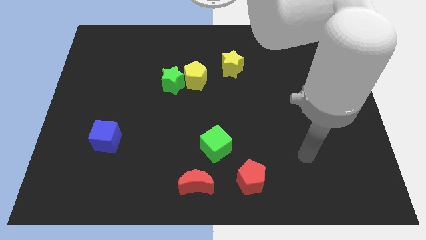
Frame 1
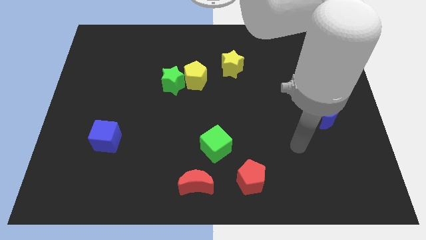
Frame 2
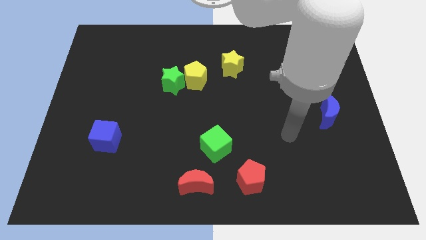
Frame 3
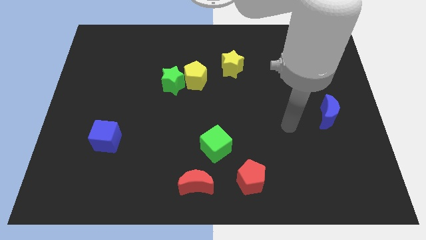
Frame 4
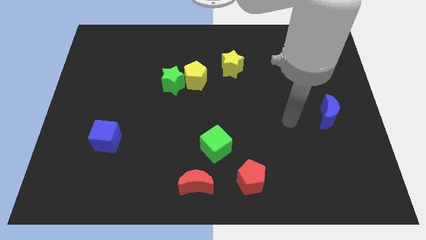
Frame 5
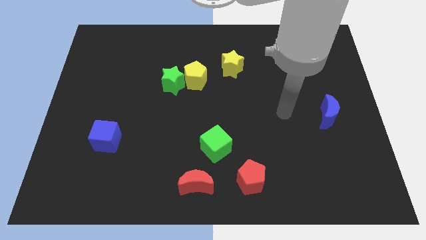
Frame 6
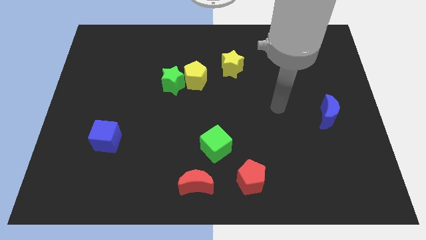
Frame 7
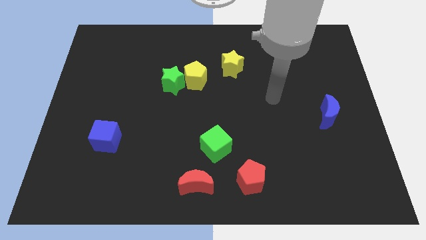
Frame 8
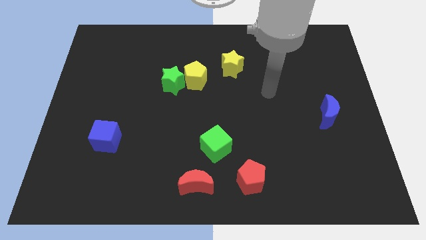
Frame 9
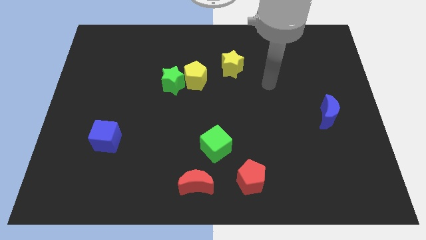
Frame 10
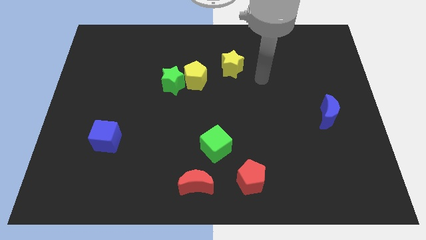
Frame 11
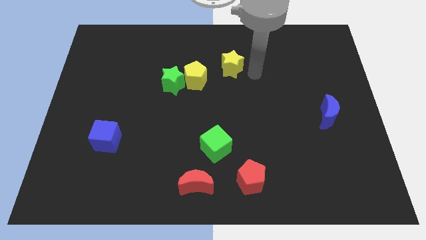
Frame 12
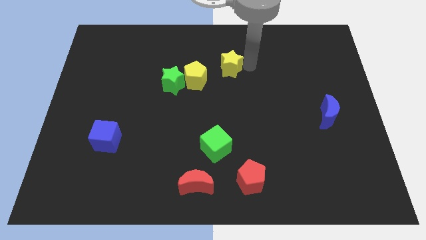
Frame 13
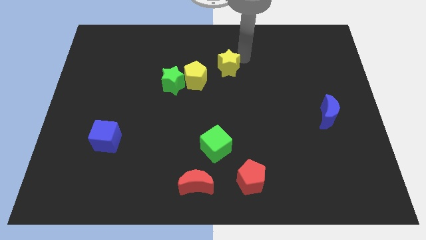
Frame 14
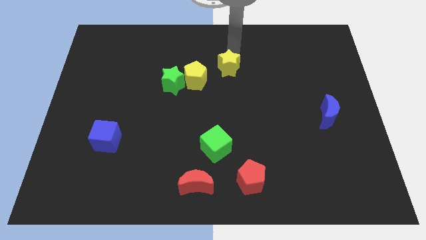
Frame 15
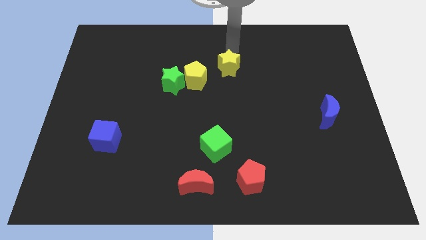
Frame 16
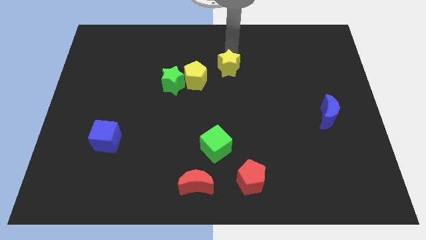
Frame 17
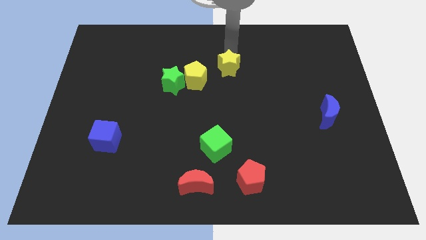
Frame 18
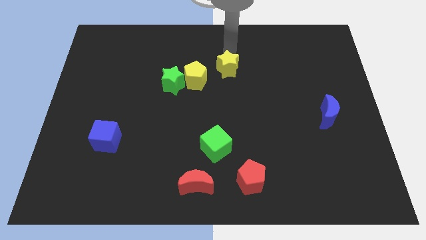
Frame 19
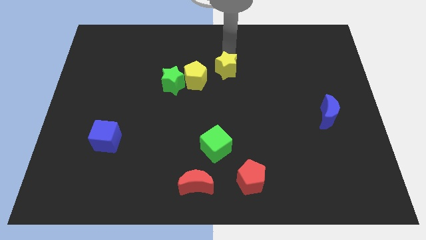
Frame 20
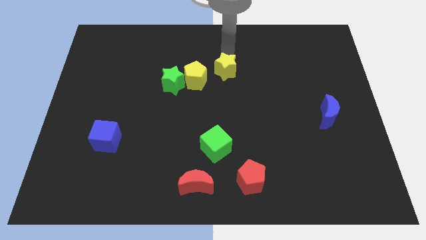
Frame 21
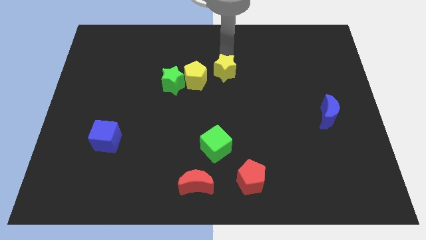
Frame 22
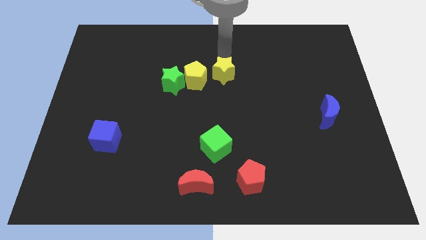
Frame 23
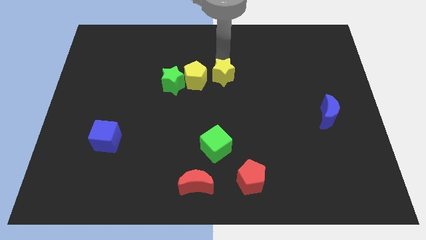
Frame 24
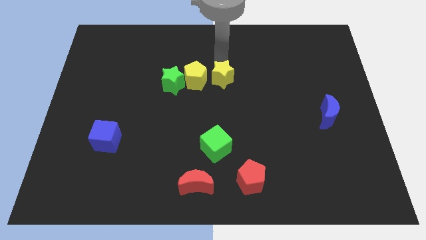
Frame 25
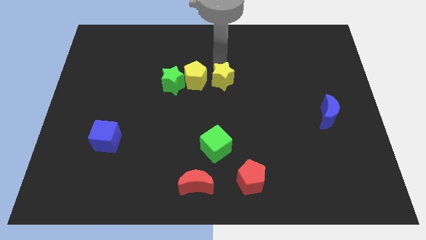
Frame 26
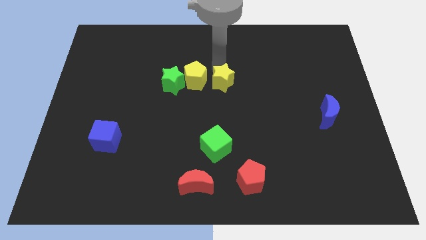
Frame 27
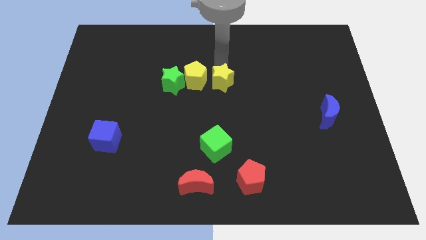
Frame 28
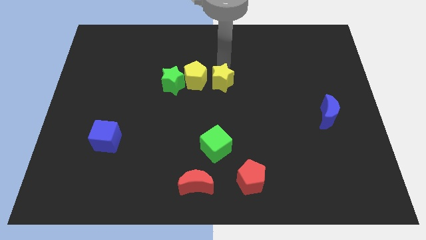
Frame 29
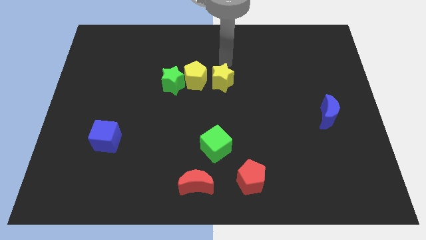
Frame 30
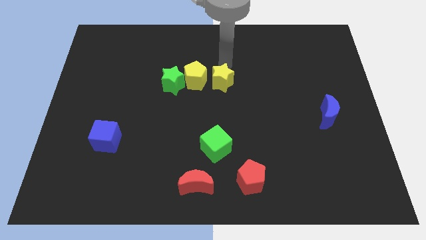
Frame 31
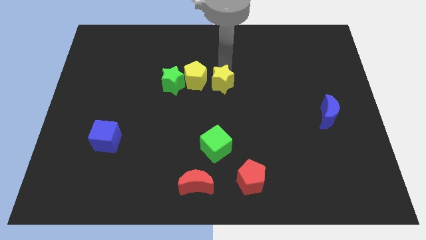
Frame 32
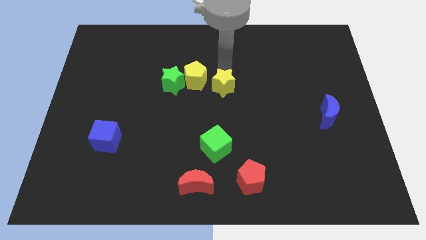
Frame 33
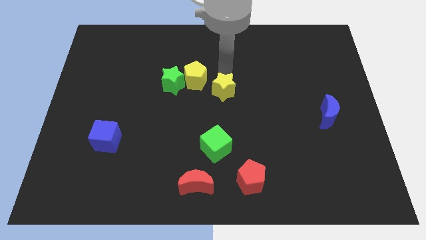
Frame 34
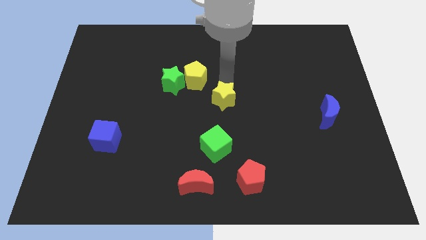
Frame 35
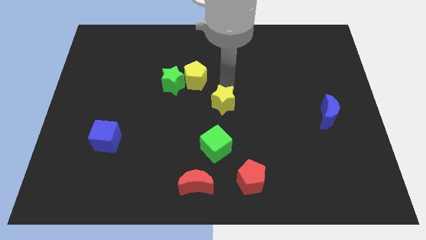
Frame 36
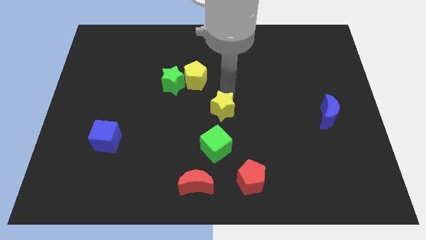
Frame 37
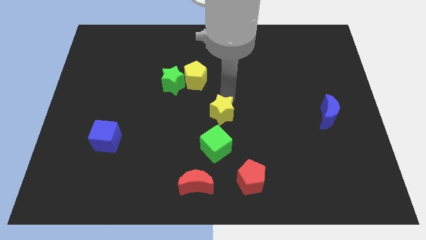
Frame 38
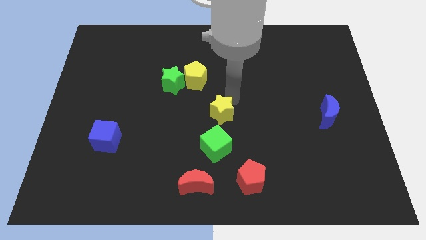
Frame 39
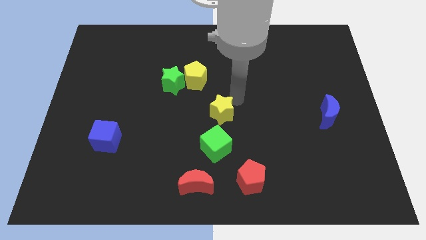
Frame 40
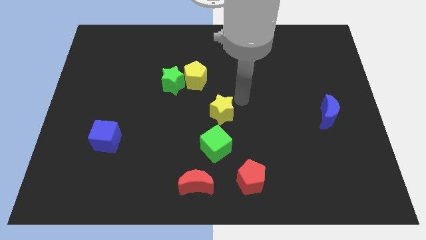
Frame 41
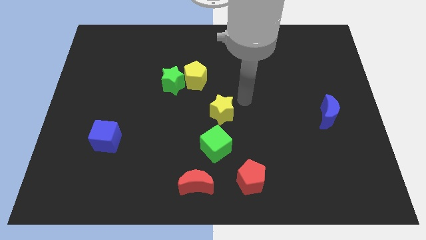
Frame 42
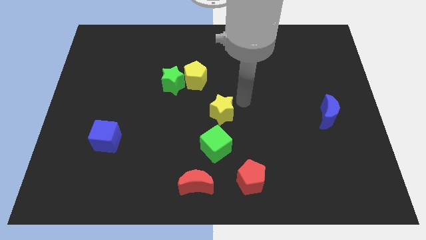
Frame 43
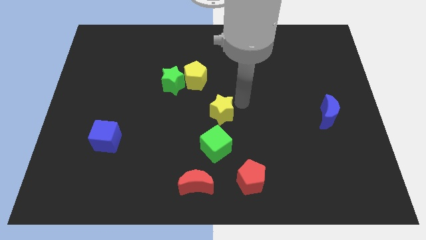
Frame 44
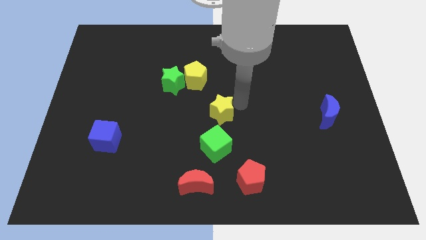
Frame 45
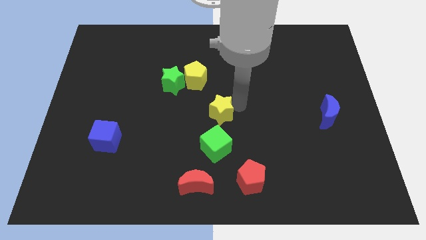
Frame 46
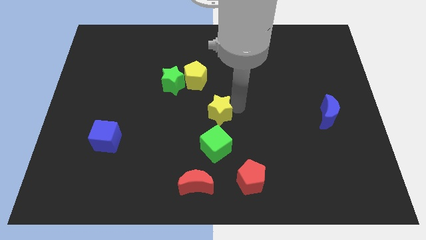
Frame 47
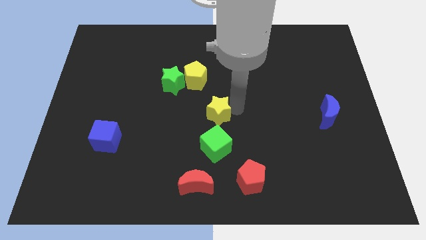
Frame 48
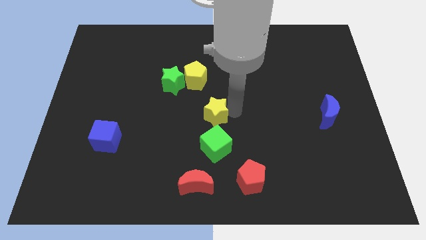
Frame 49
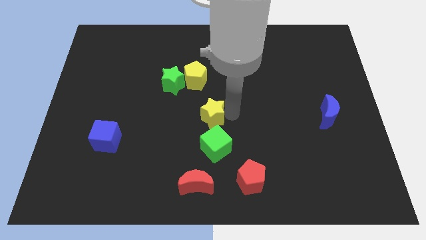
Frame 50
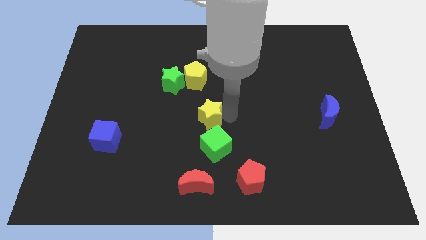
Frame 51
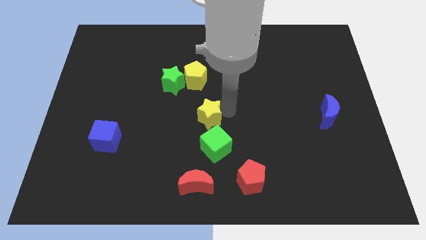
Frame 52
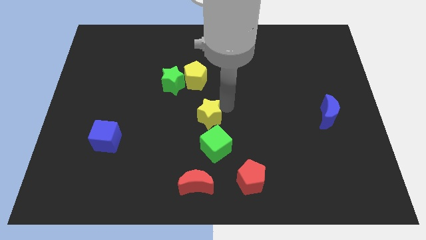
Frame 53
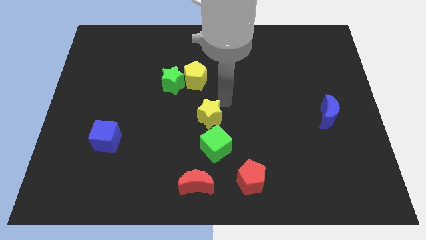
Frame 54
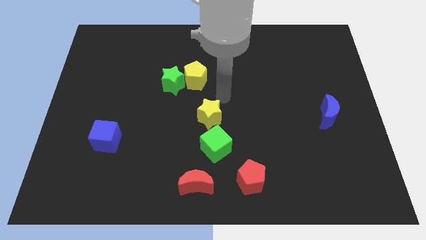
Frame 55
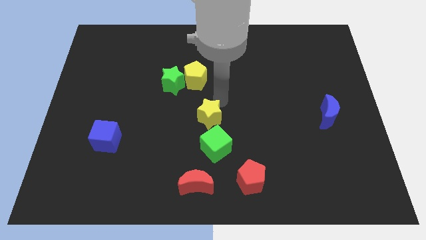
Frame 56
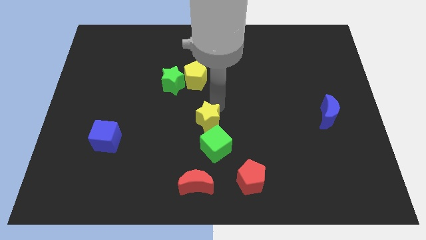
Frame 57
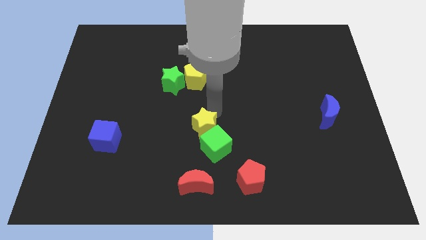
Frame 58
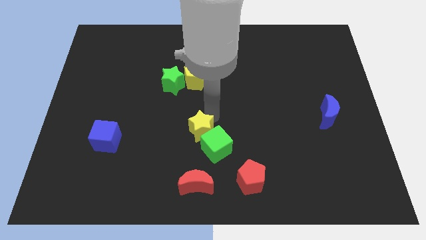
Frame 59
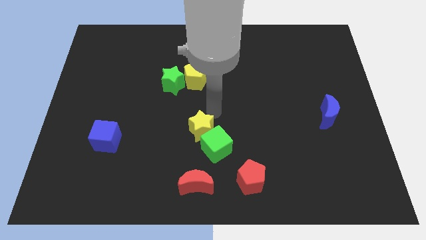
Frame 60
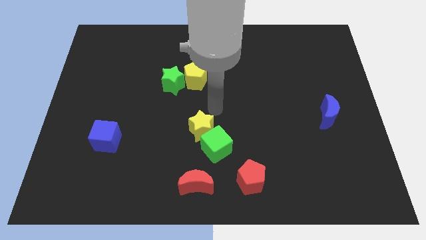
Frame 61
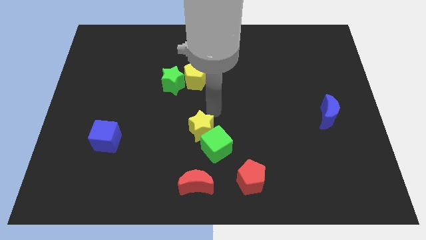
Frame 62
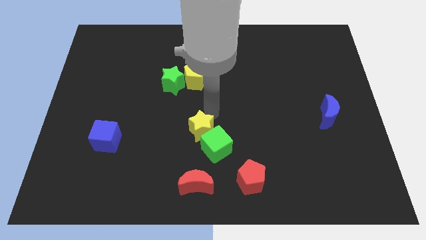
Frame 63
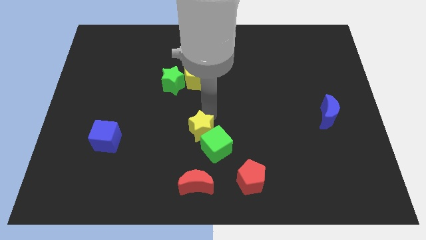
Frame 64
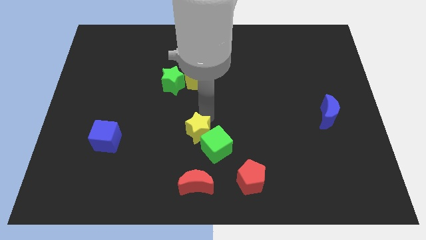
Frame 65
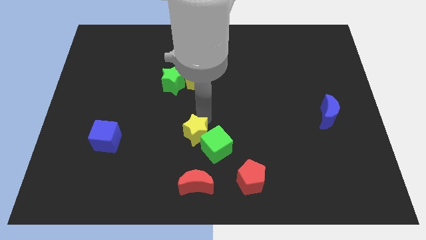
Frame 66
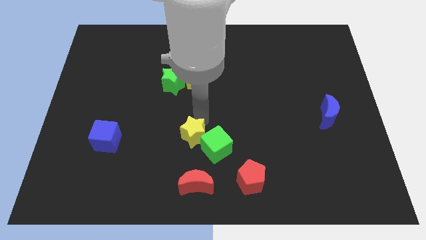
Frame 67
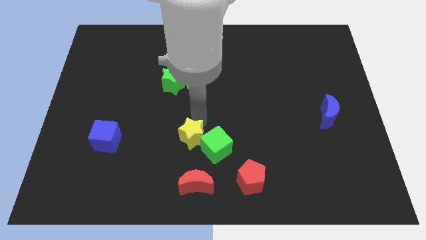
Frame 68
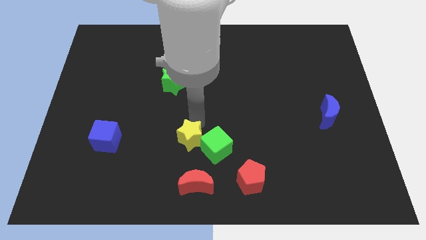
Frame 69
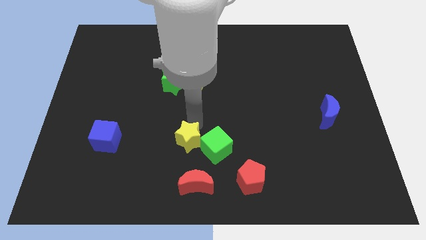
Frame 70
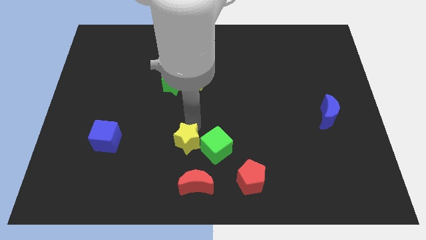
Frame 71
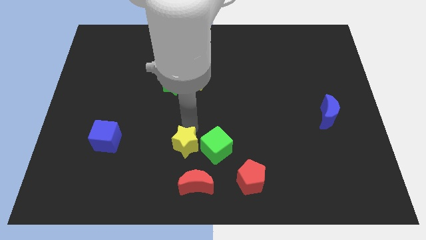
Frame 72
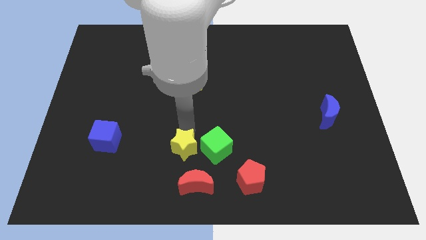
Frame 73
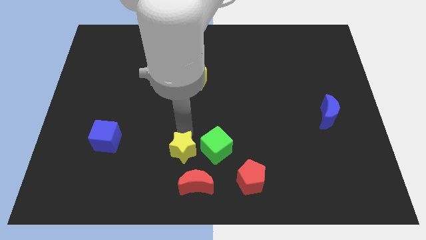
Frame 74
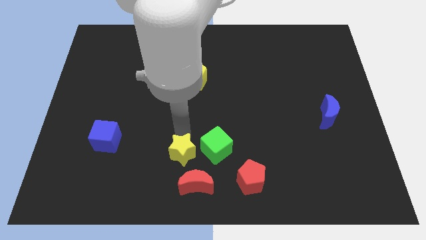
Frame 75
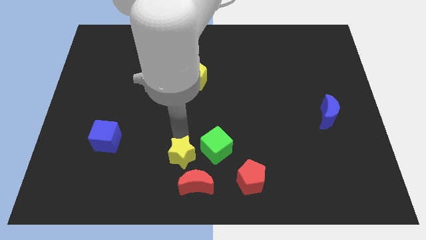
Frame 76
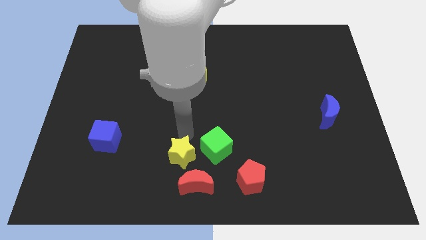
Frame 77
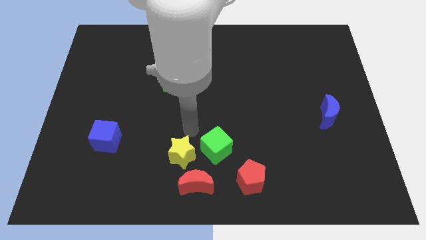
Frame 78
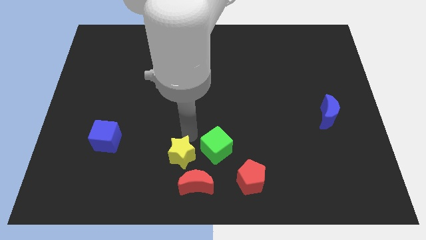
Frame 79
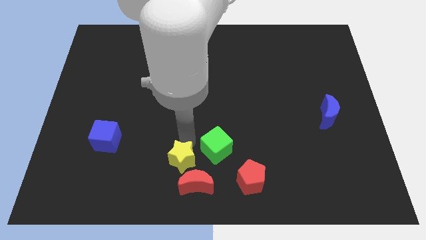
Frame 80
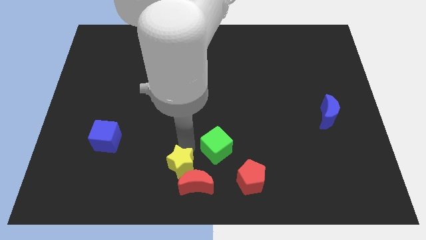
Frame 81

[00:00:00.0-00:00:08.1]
put the yellow star left of the red pentagon
